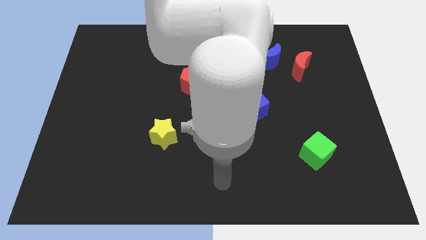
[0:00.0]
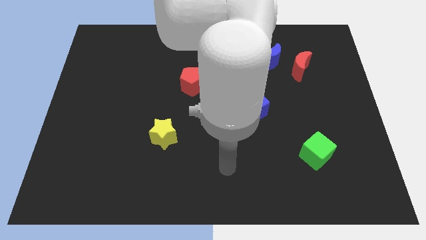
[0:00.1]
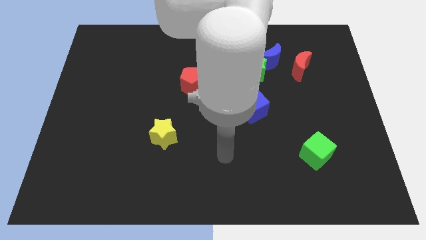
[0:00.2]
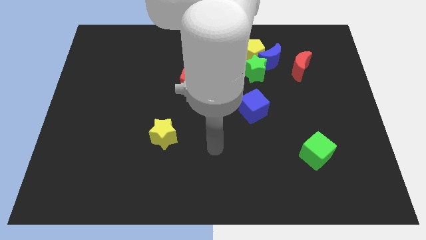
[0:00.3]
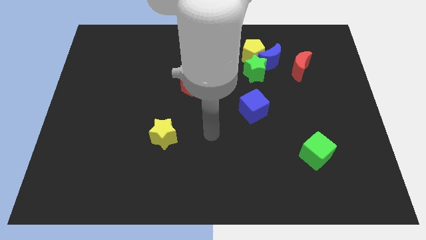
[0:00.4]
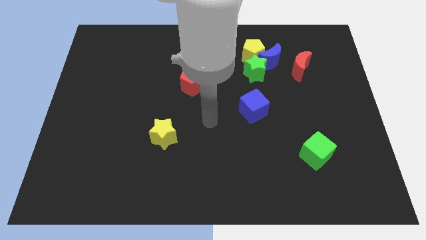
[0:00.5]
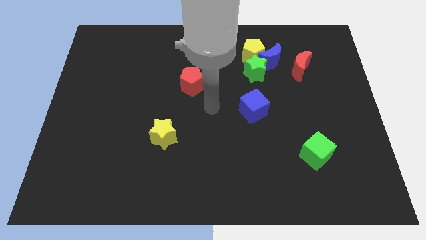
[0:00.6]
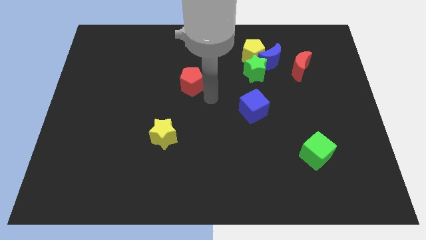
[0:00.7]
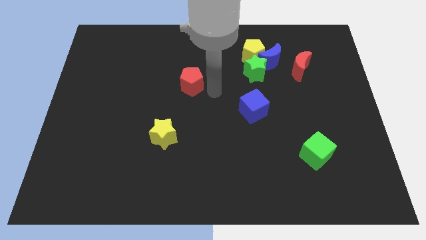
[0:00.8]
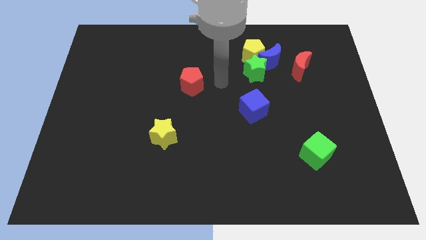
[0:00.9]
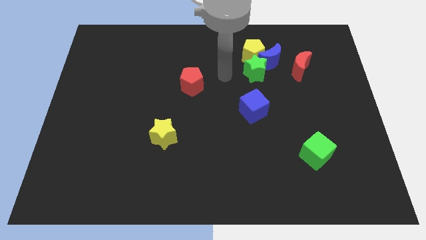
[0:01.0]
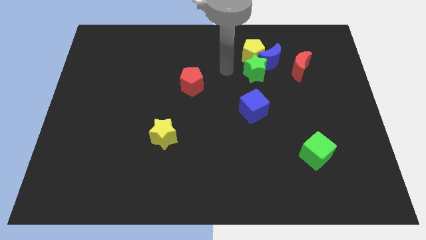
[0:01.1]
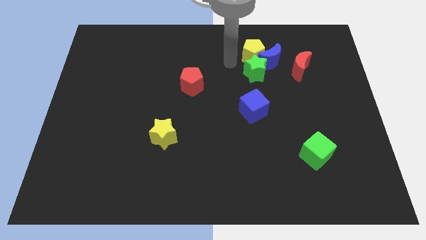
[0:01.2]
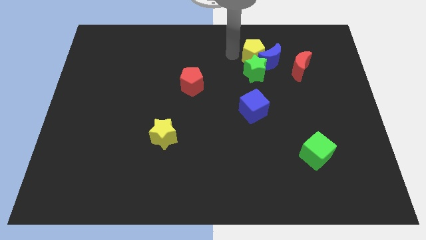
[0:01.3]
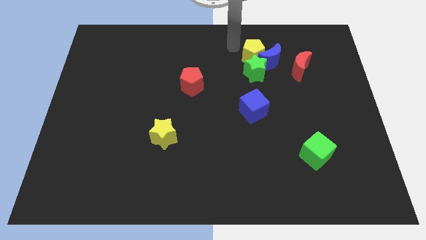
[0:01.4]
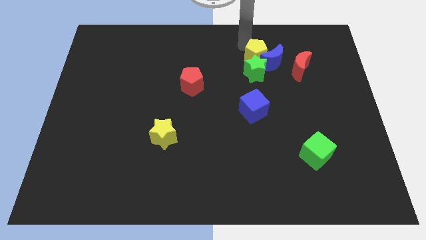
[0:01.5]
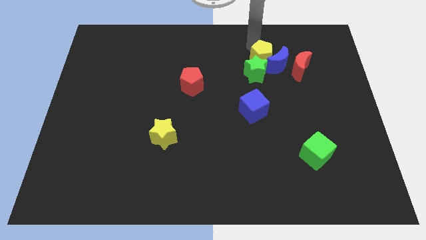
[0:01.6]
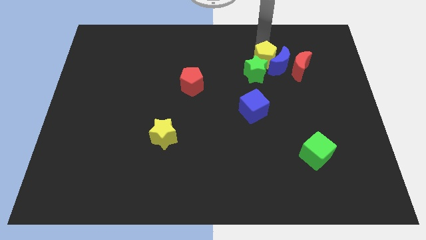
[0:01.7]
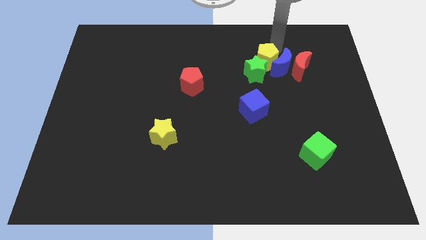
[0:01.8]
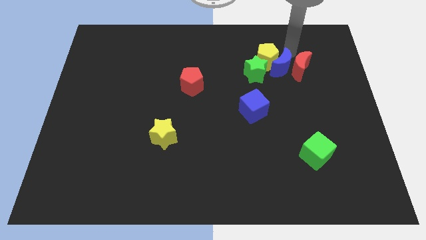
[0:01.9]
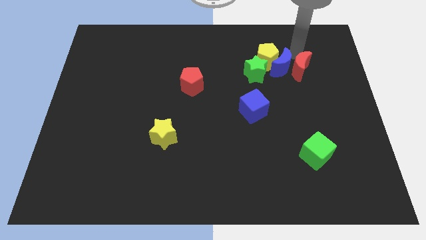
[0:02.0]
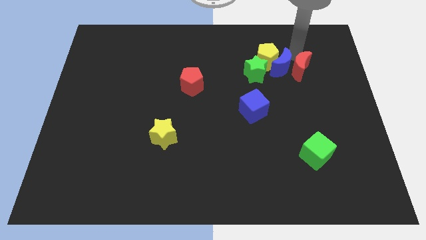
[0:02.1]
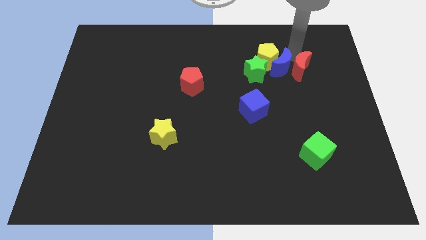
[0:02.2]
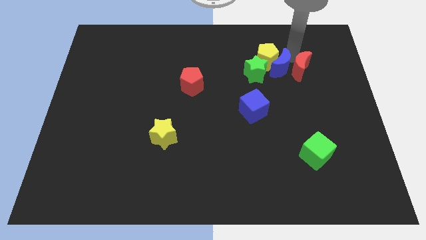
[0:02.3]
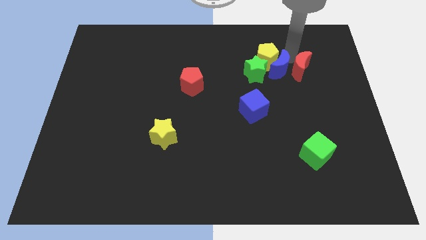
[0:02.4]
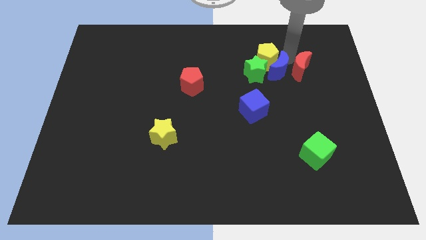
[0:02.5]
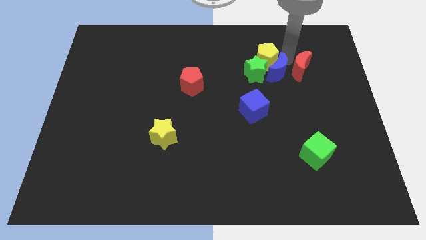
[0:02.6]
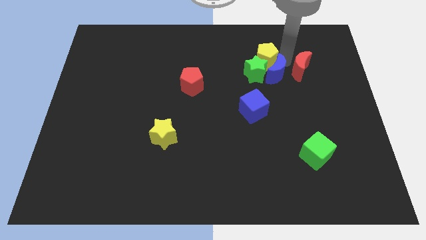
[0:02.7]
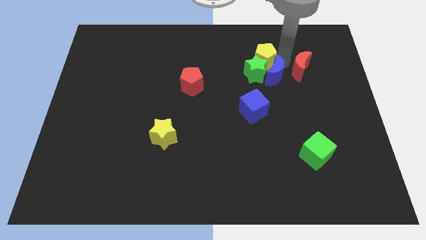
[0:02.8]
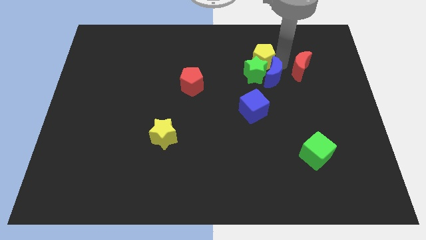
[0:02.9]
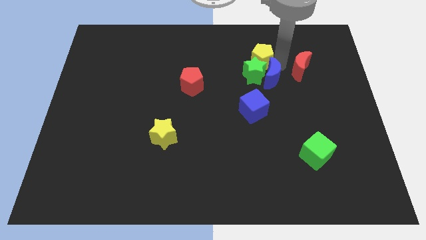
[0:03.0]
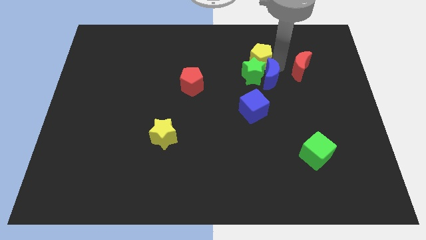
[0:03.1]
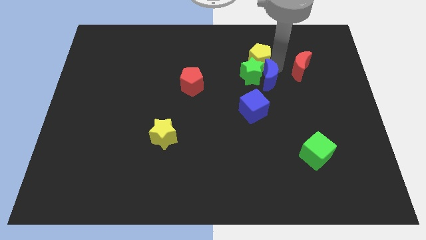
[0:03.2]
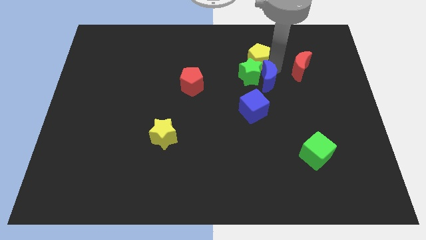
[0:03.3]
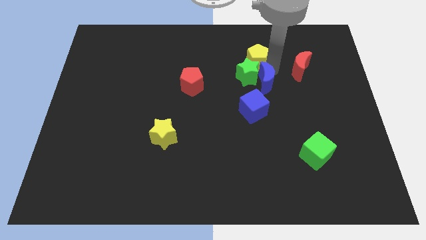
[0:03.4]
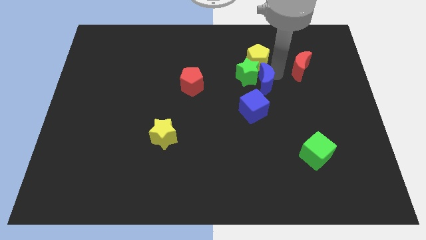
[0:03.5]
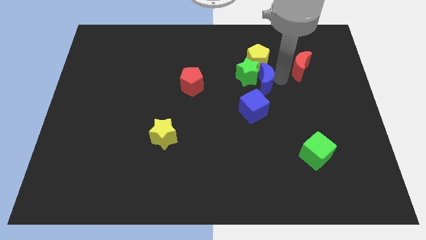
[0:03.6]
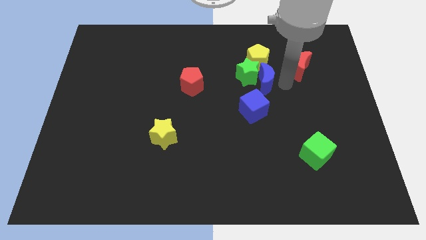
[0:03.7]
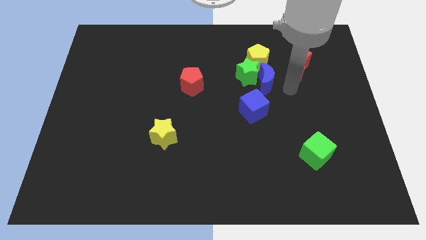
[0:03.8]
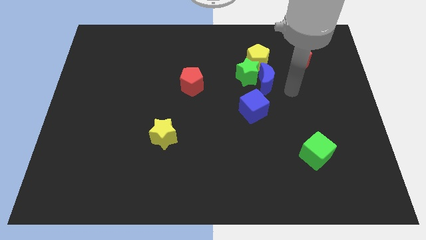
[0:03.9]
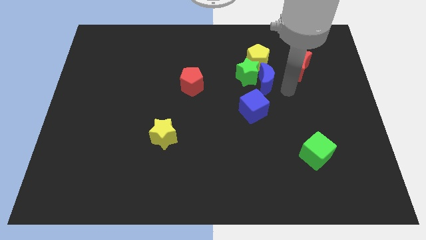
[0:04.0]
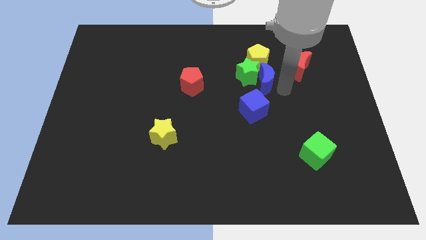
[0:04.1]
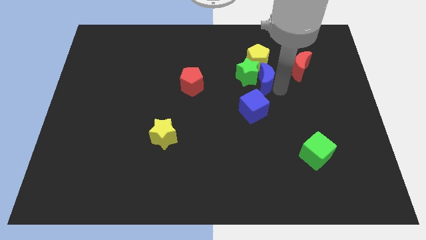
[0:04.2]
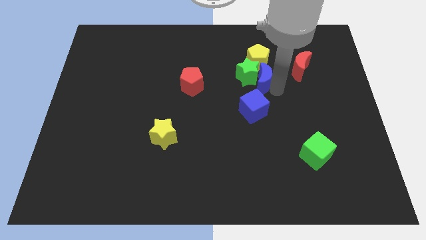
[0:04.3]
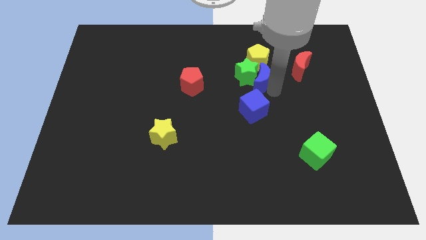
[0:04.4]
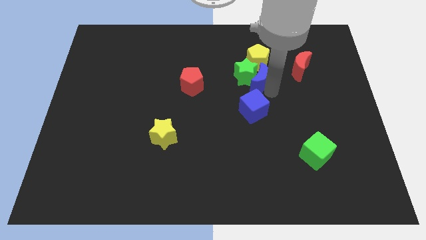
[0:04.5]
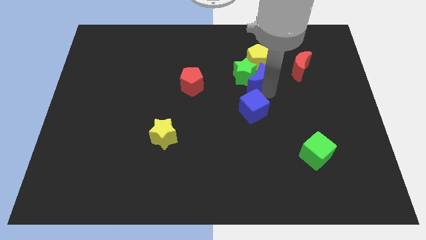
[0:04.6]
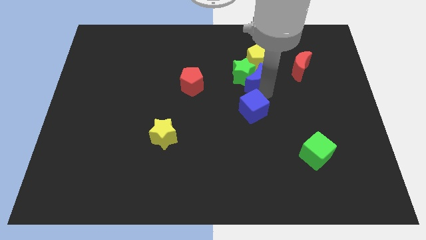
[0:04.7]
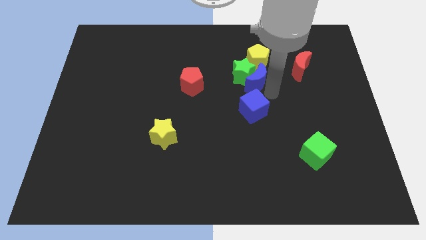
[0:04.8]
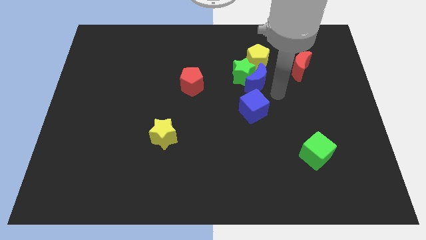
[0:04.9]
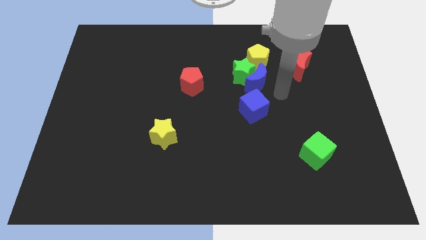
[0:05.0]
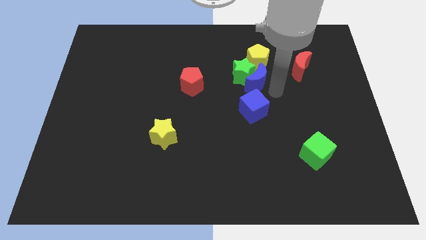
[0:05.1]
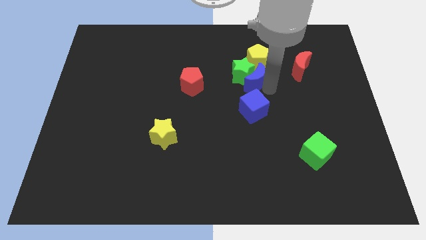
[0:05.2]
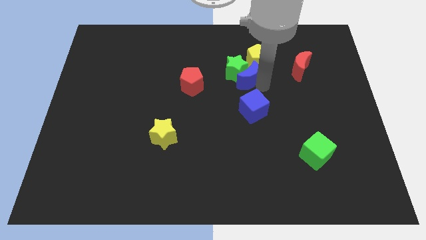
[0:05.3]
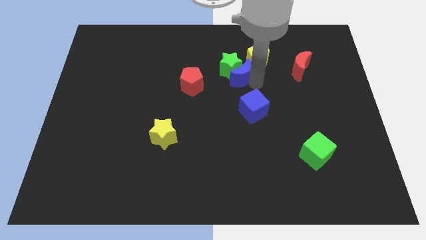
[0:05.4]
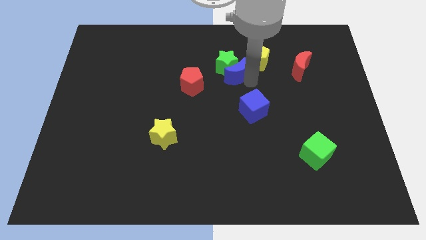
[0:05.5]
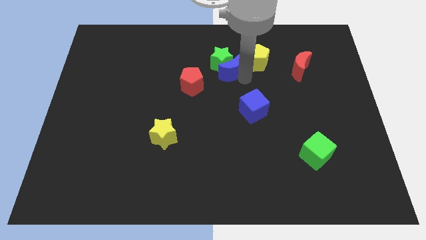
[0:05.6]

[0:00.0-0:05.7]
push the blue moon diagonally up and to the right of the red pentagon
